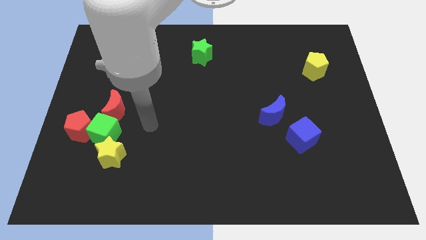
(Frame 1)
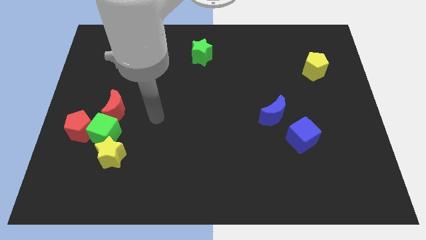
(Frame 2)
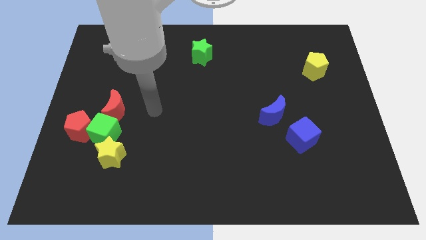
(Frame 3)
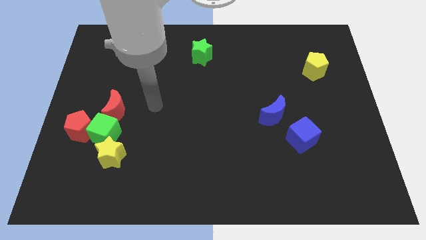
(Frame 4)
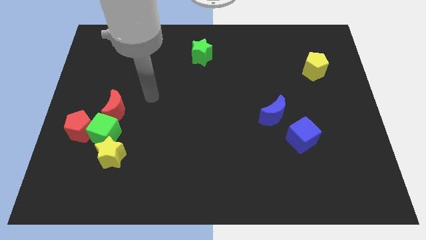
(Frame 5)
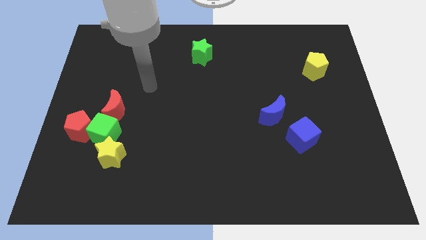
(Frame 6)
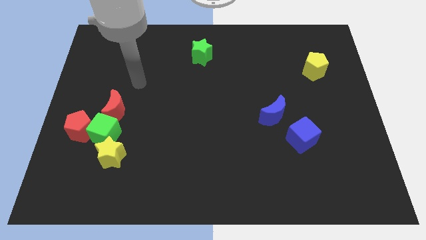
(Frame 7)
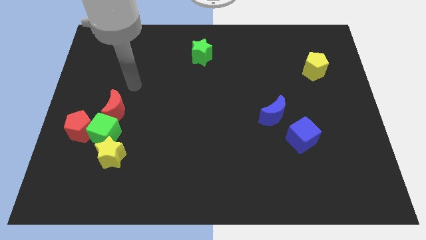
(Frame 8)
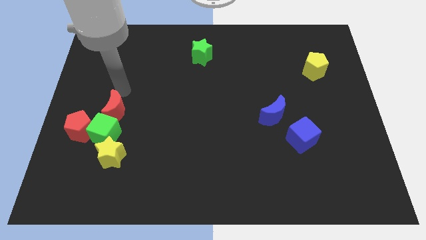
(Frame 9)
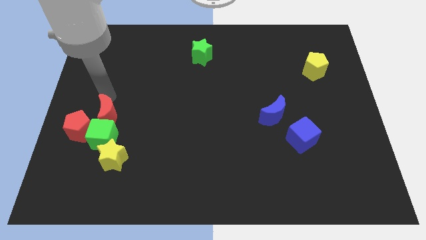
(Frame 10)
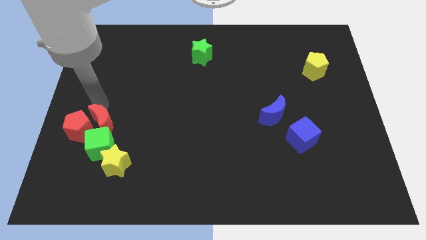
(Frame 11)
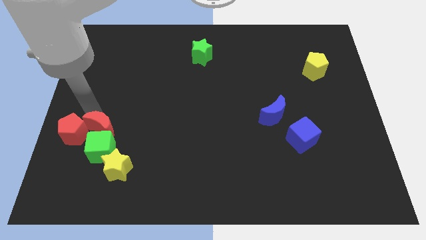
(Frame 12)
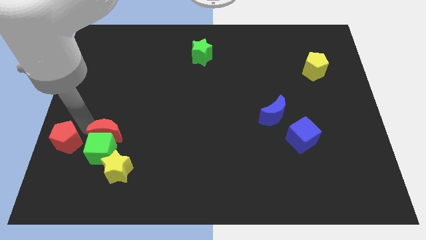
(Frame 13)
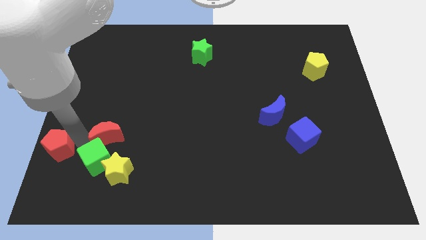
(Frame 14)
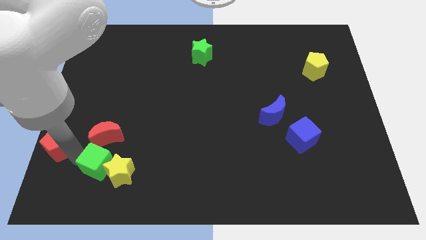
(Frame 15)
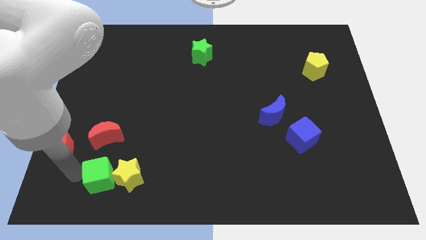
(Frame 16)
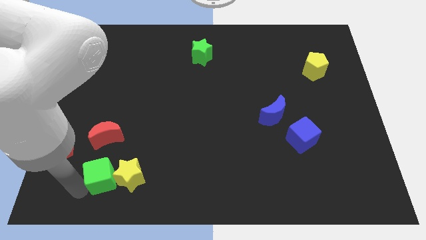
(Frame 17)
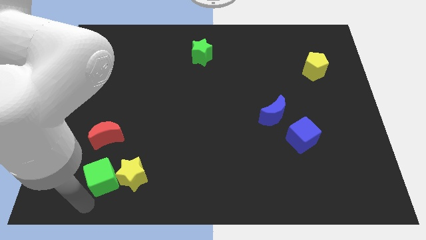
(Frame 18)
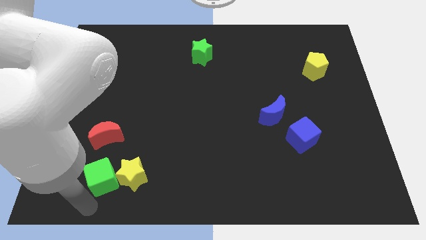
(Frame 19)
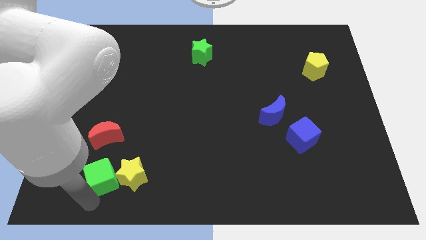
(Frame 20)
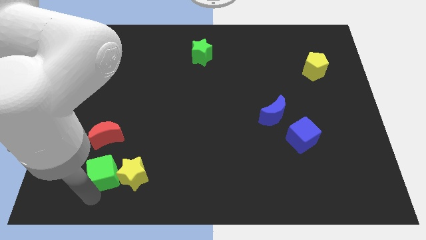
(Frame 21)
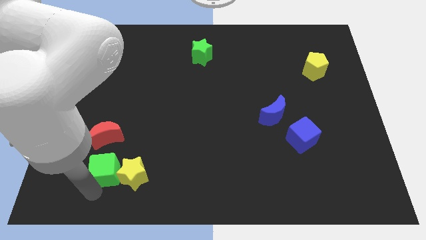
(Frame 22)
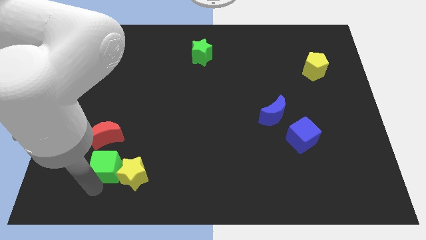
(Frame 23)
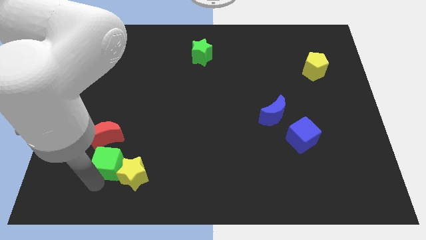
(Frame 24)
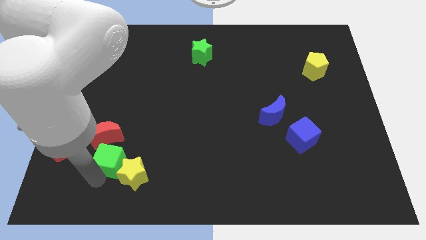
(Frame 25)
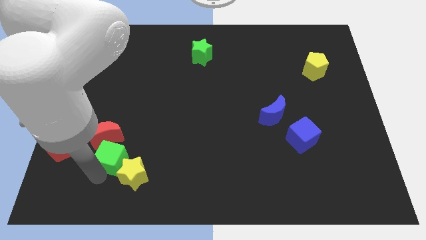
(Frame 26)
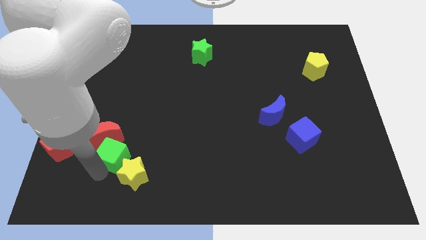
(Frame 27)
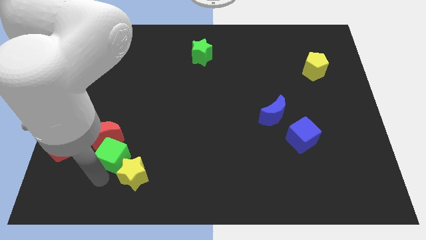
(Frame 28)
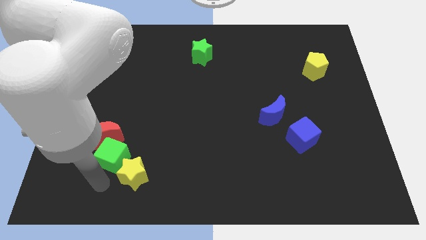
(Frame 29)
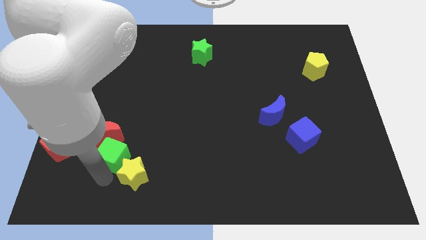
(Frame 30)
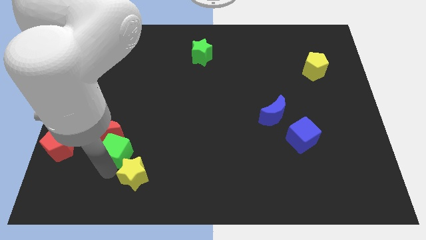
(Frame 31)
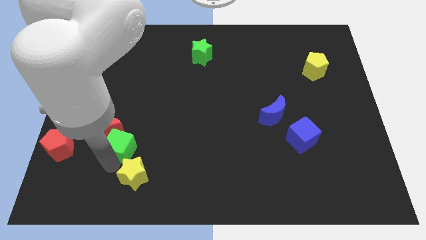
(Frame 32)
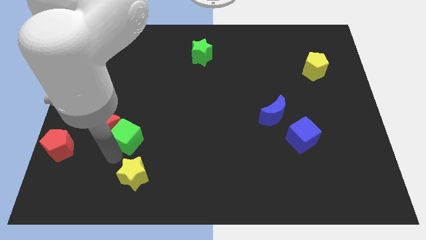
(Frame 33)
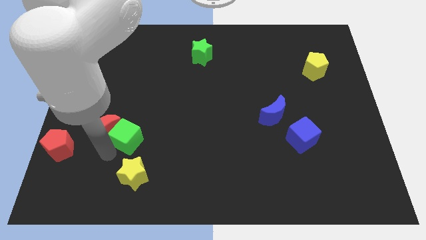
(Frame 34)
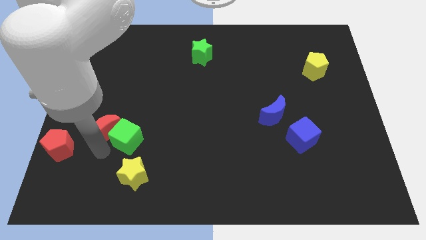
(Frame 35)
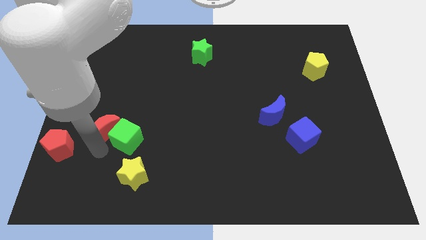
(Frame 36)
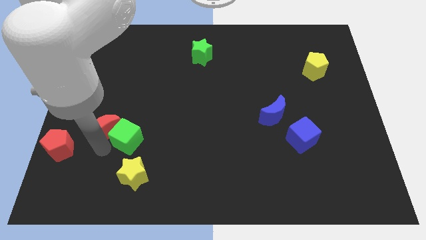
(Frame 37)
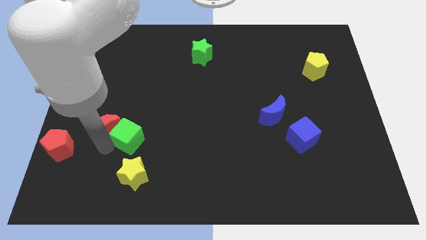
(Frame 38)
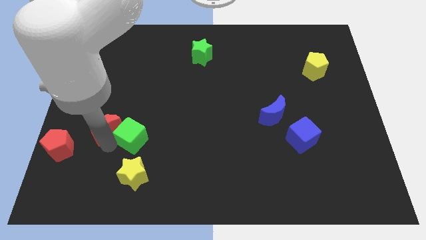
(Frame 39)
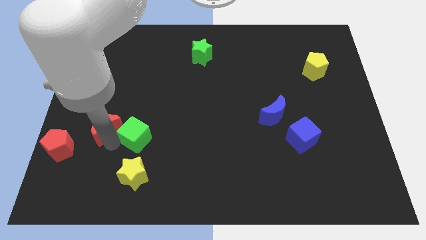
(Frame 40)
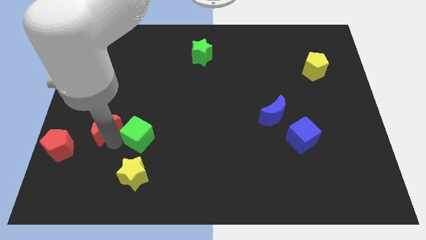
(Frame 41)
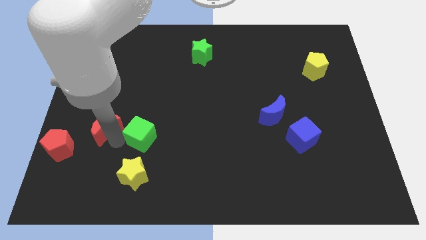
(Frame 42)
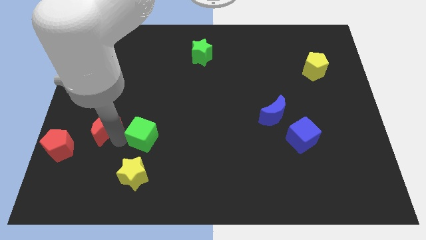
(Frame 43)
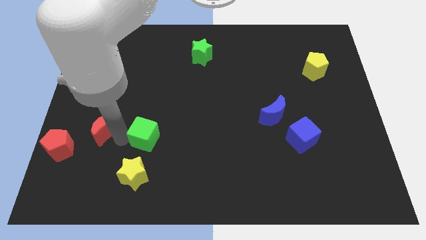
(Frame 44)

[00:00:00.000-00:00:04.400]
pull the green cube apart from the clump

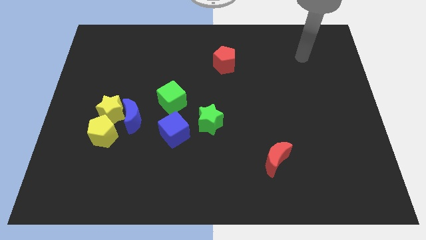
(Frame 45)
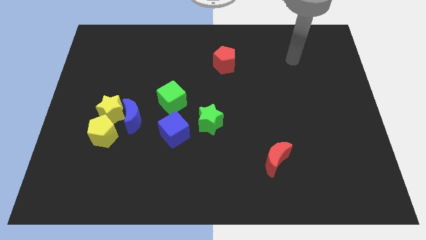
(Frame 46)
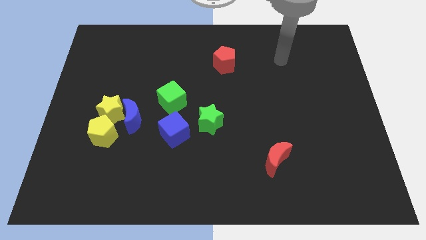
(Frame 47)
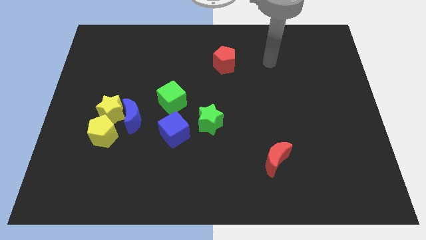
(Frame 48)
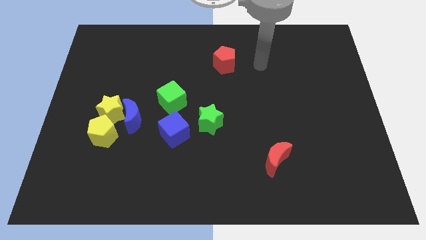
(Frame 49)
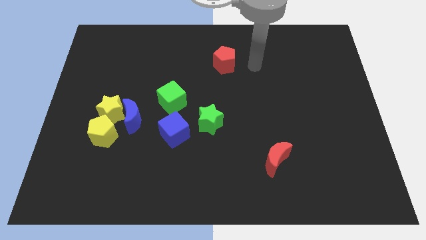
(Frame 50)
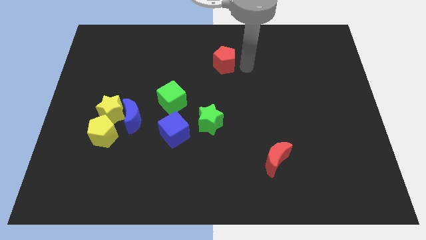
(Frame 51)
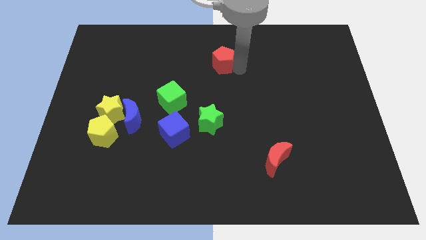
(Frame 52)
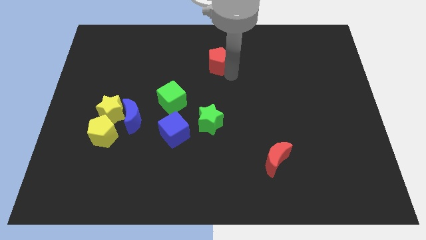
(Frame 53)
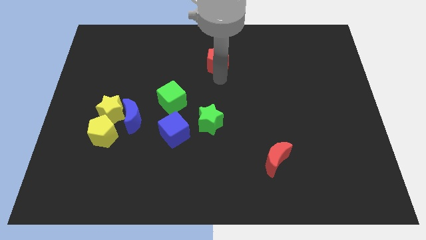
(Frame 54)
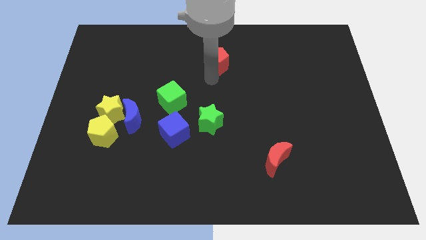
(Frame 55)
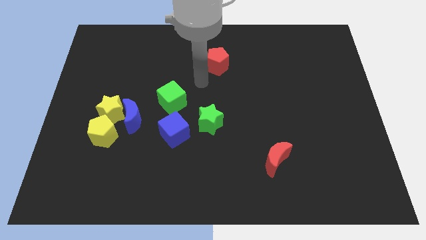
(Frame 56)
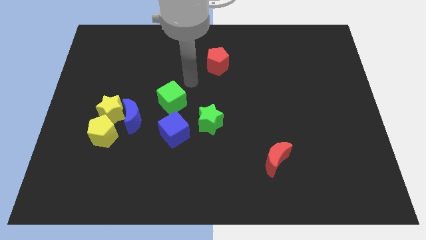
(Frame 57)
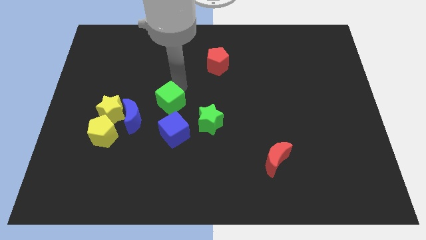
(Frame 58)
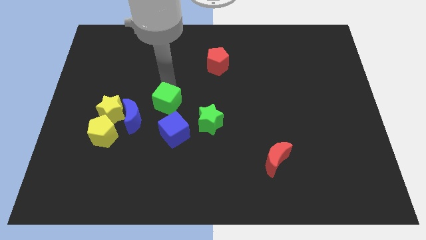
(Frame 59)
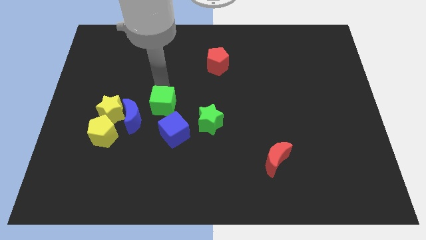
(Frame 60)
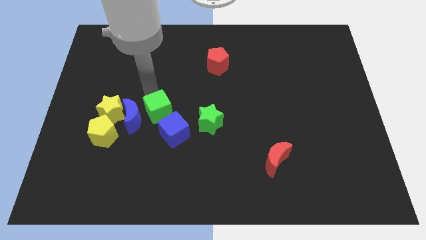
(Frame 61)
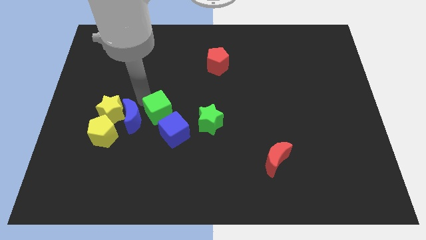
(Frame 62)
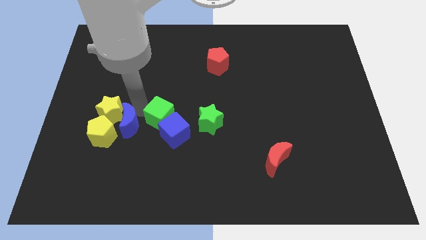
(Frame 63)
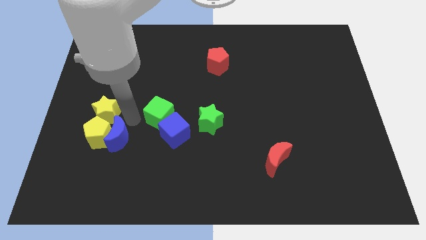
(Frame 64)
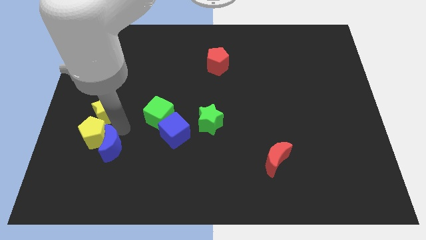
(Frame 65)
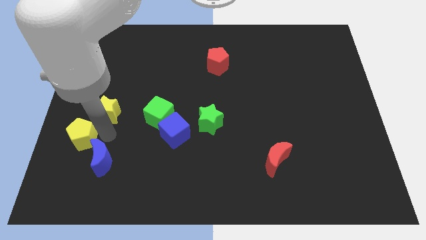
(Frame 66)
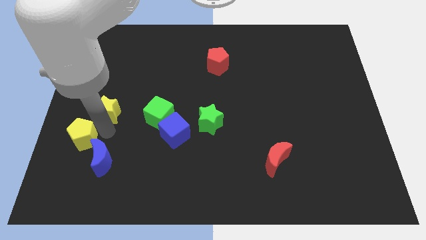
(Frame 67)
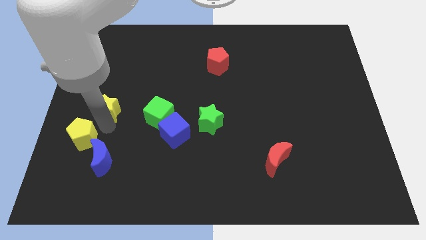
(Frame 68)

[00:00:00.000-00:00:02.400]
separate the yellow star from the blue moon and yellow pentagon

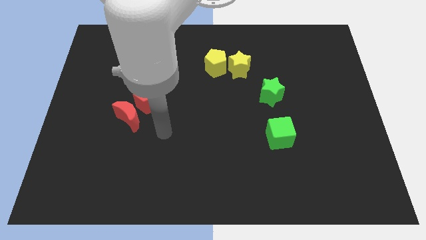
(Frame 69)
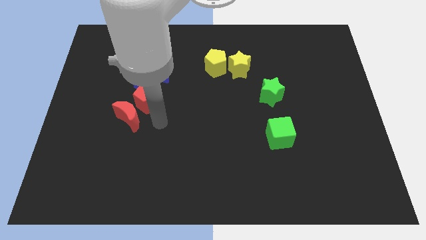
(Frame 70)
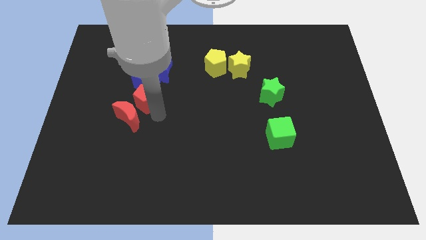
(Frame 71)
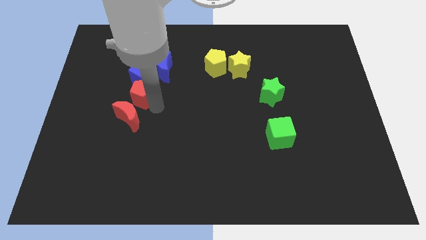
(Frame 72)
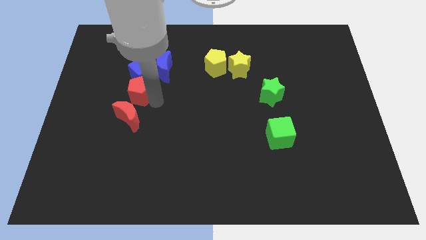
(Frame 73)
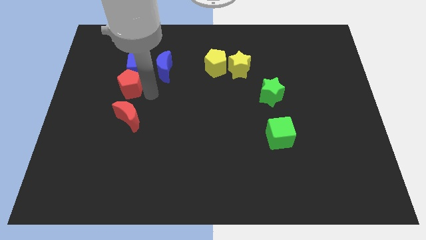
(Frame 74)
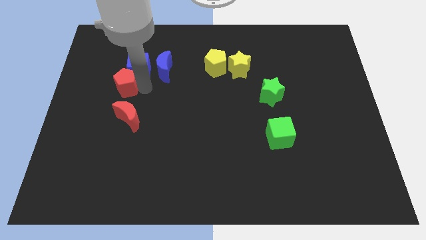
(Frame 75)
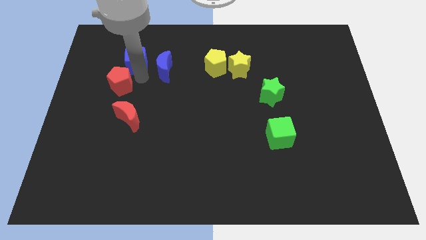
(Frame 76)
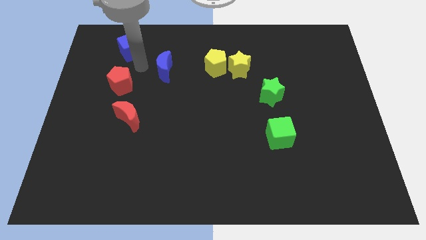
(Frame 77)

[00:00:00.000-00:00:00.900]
separate the blue moon from the blue cube

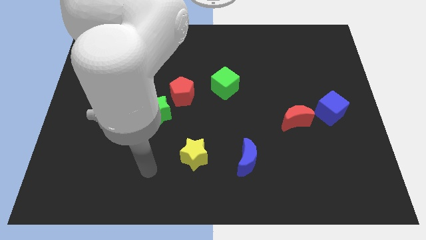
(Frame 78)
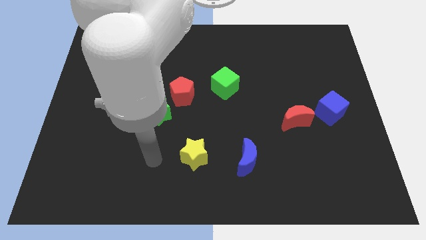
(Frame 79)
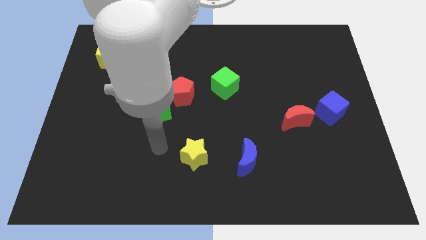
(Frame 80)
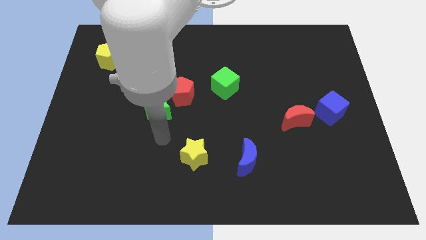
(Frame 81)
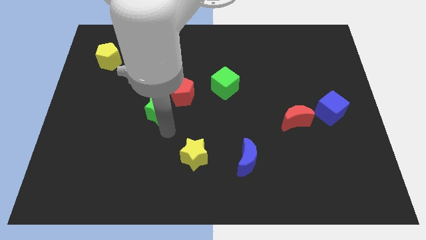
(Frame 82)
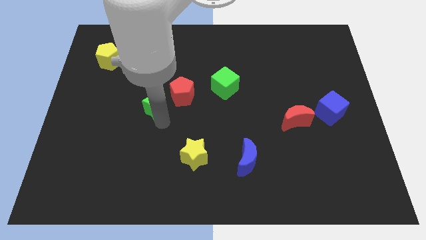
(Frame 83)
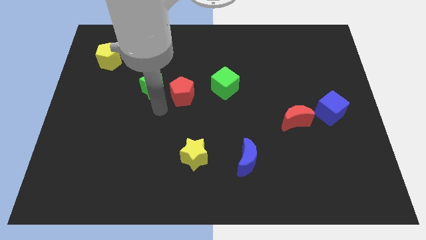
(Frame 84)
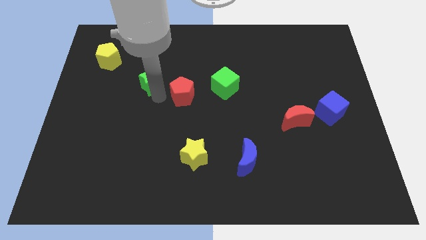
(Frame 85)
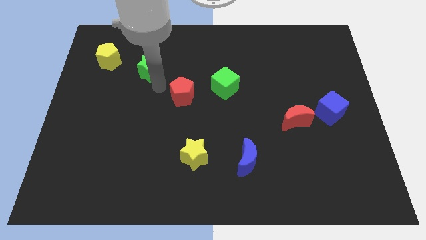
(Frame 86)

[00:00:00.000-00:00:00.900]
move the red pentagon away from the green star

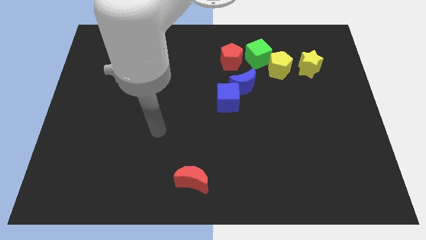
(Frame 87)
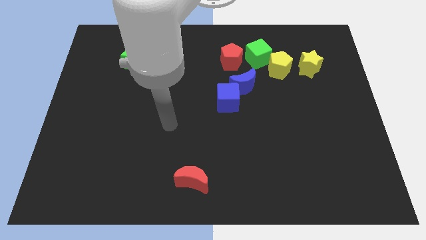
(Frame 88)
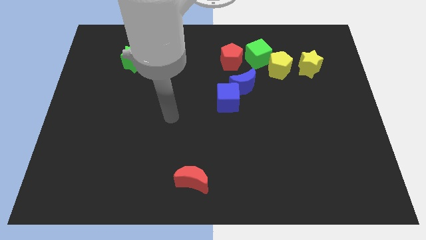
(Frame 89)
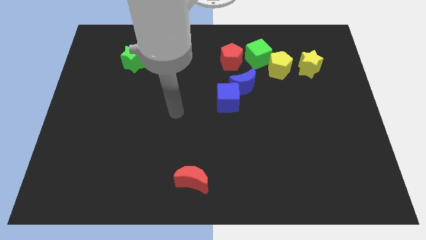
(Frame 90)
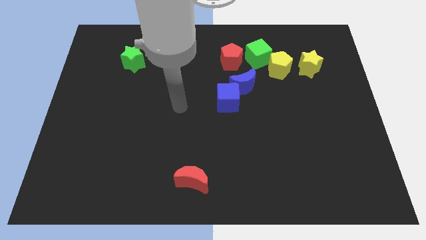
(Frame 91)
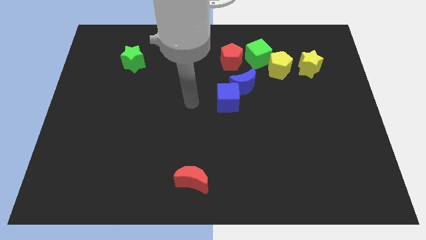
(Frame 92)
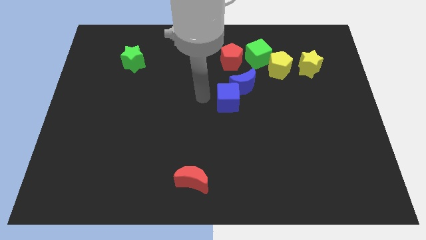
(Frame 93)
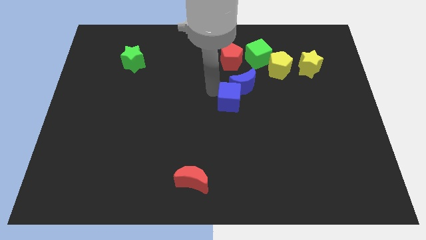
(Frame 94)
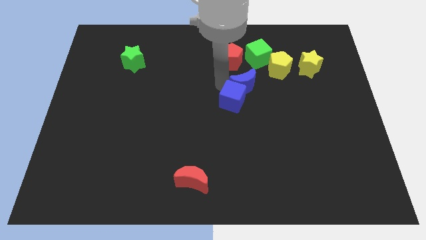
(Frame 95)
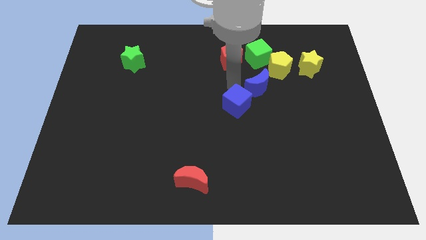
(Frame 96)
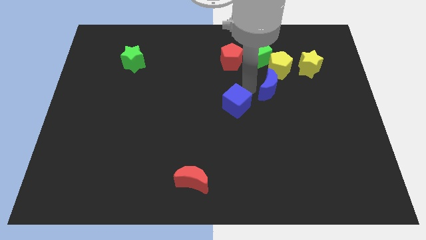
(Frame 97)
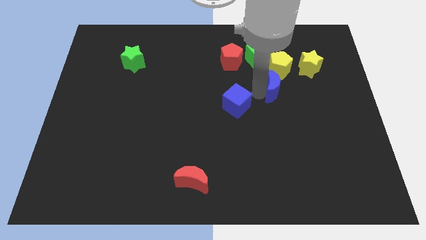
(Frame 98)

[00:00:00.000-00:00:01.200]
pull the blue cube apart from the blue moon
